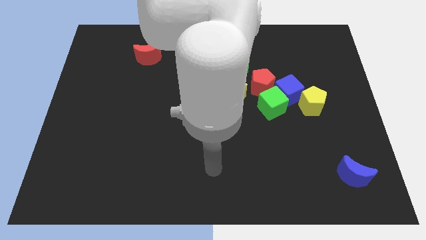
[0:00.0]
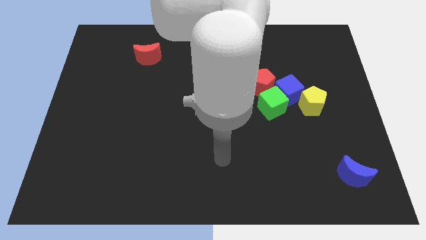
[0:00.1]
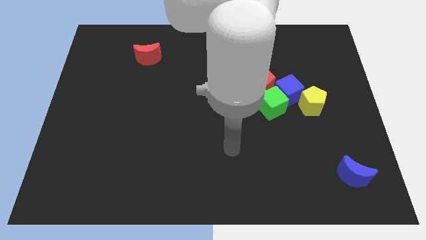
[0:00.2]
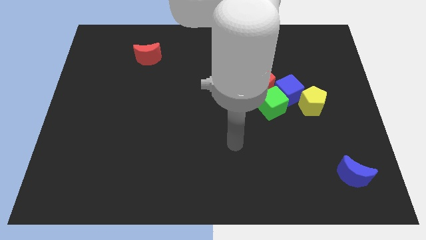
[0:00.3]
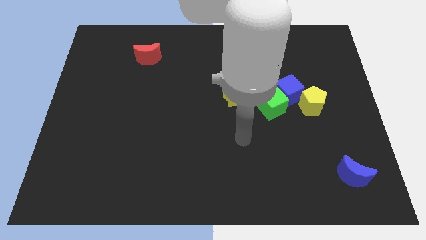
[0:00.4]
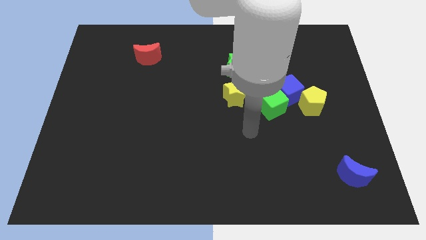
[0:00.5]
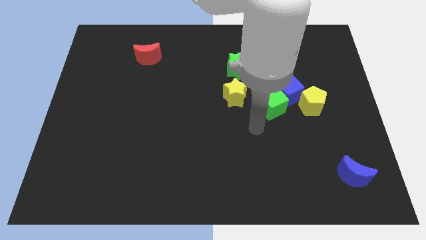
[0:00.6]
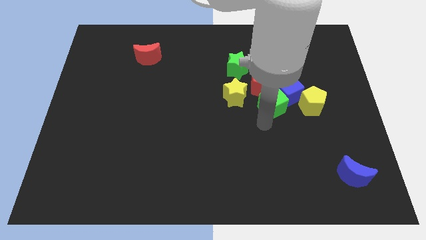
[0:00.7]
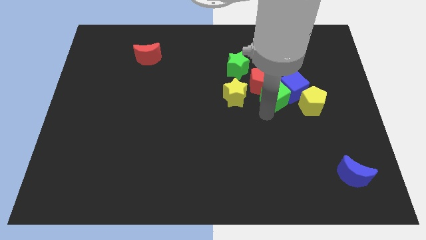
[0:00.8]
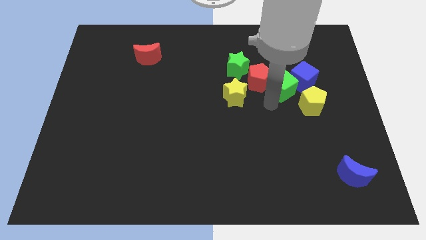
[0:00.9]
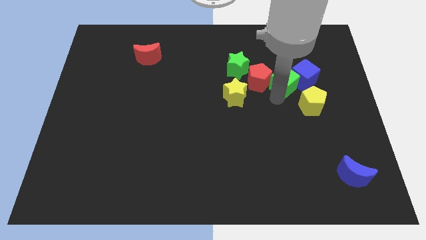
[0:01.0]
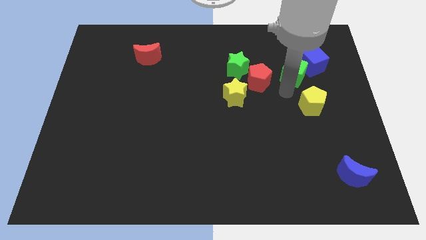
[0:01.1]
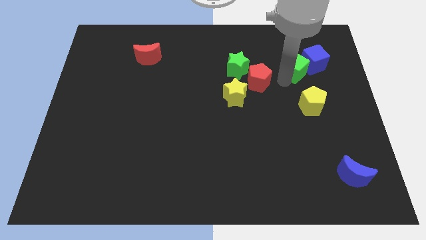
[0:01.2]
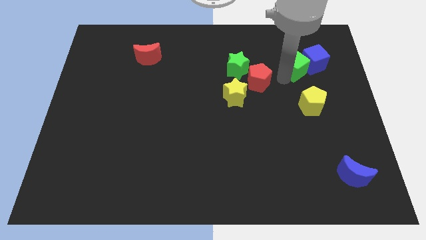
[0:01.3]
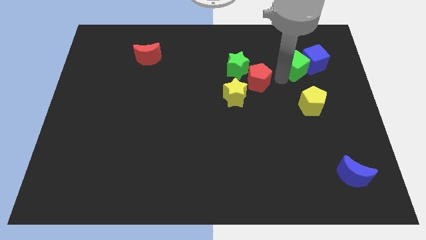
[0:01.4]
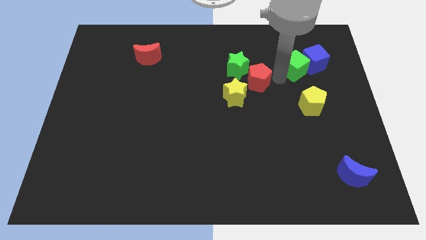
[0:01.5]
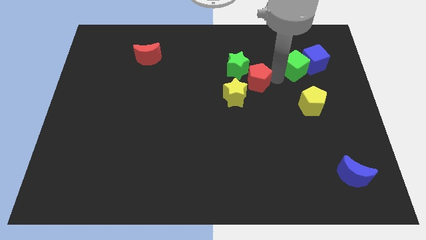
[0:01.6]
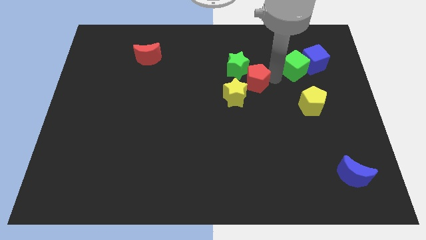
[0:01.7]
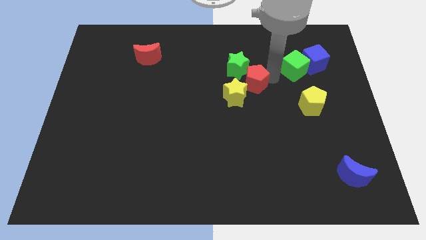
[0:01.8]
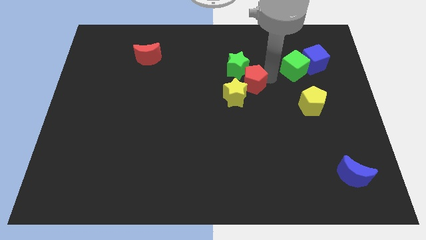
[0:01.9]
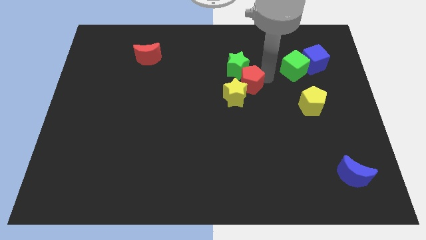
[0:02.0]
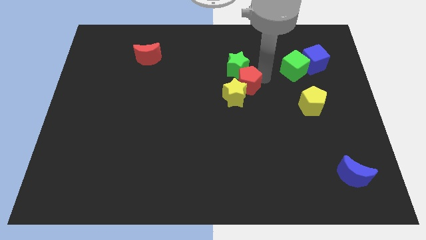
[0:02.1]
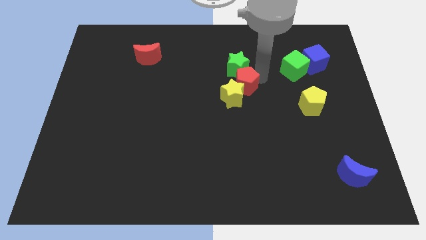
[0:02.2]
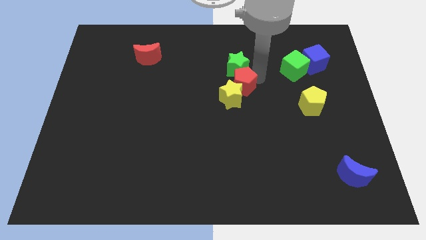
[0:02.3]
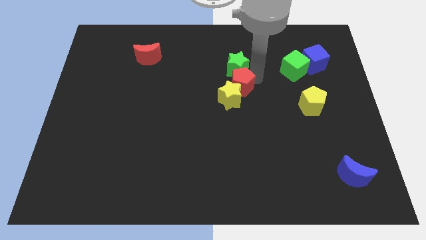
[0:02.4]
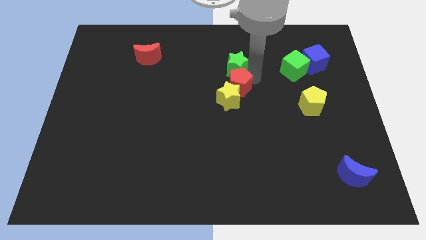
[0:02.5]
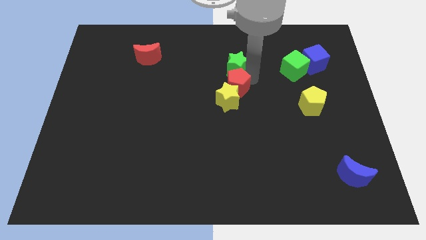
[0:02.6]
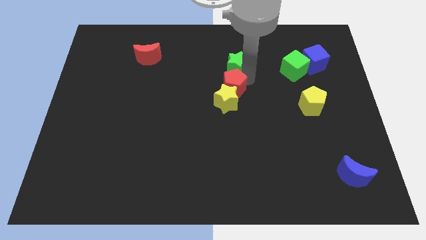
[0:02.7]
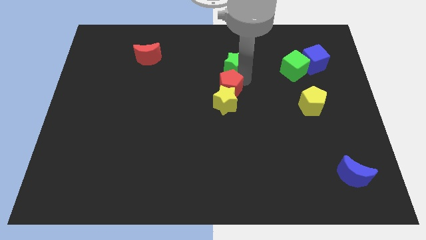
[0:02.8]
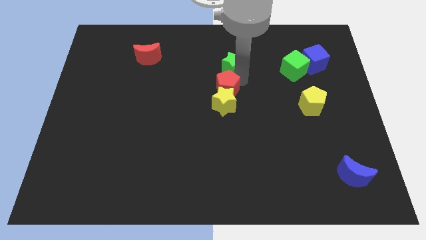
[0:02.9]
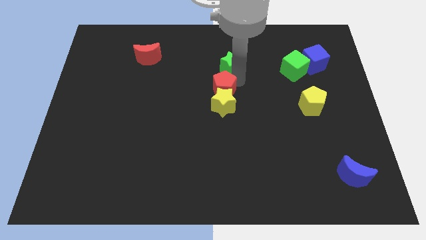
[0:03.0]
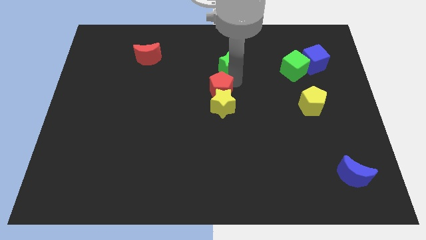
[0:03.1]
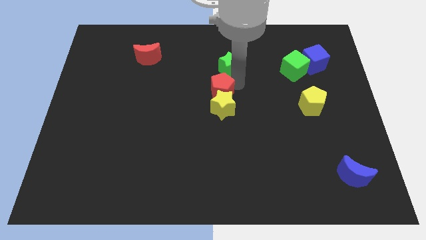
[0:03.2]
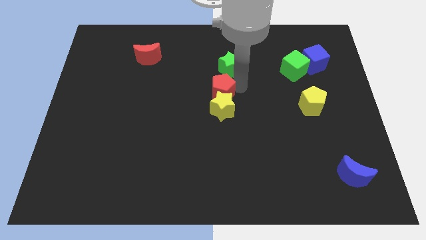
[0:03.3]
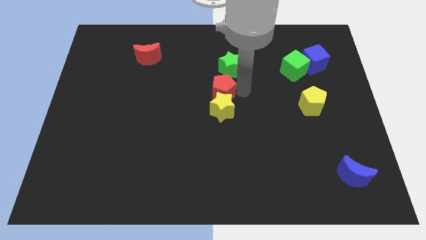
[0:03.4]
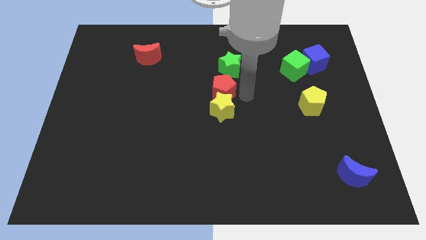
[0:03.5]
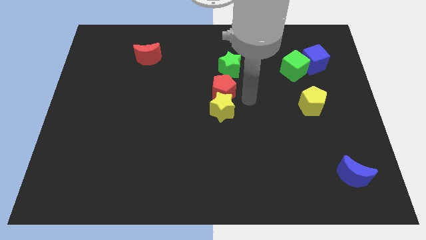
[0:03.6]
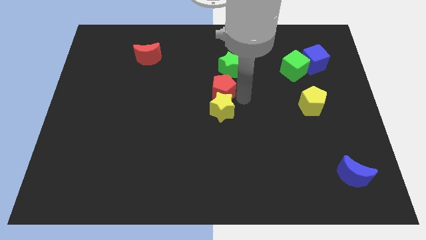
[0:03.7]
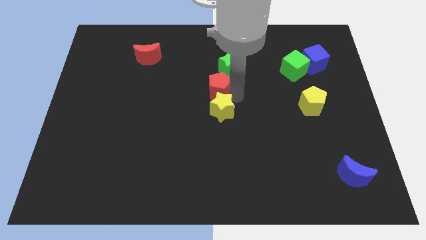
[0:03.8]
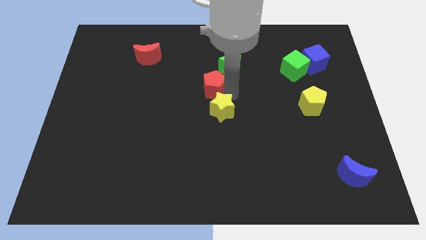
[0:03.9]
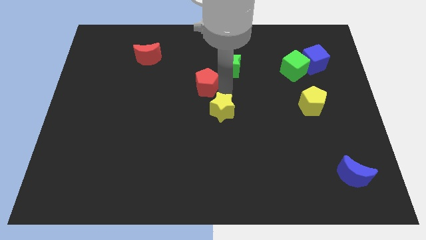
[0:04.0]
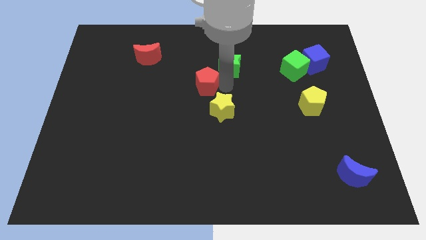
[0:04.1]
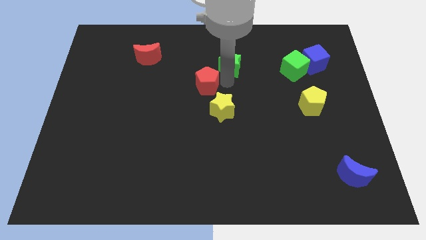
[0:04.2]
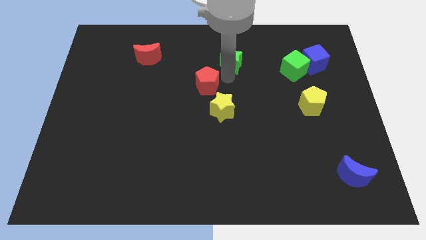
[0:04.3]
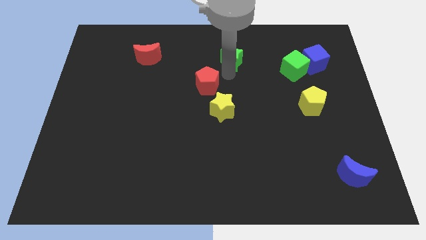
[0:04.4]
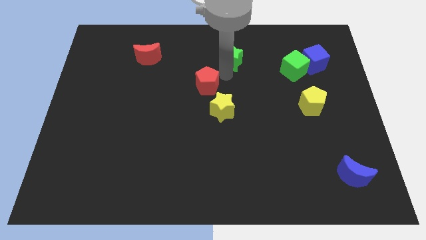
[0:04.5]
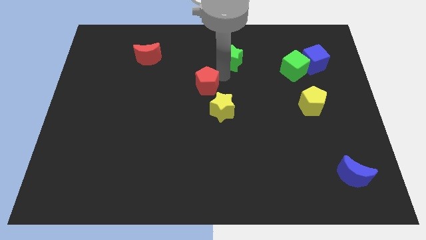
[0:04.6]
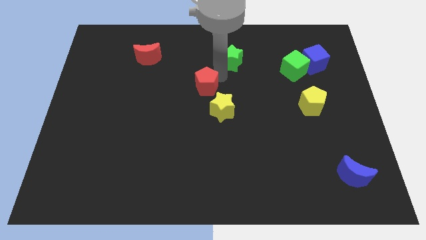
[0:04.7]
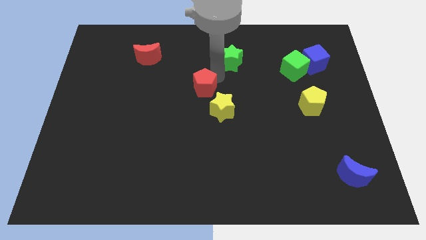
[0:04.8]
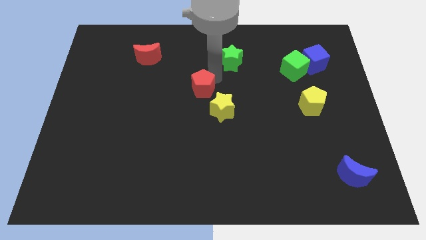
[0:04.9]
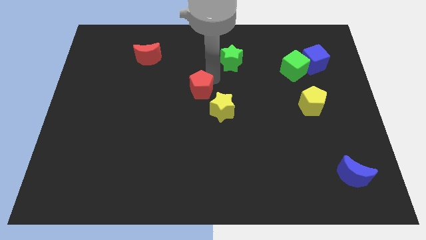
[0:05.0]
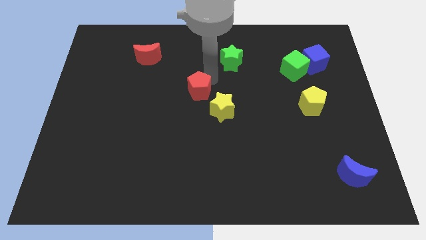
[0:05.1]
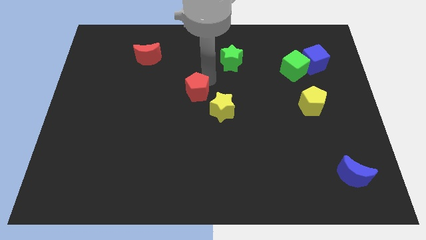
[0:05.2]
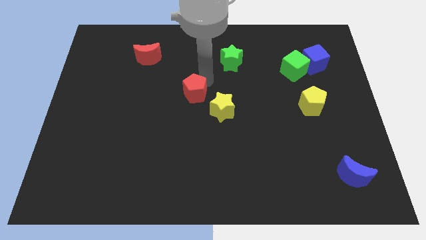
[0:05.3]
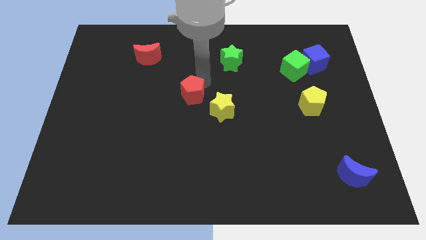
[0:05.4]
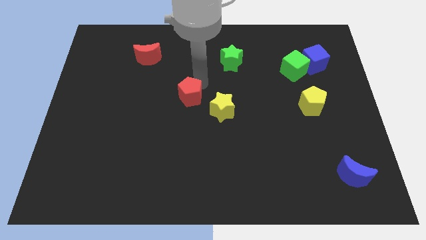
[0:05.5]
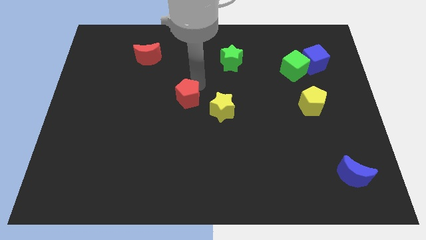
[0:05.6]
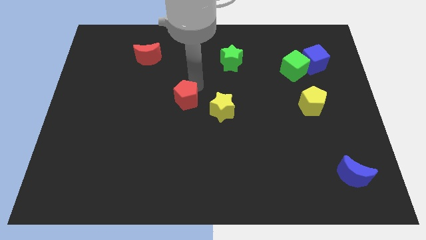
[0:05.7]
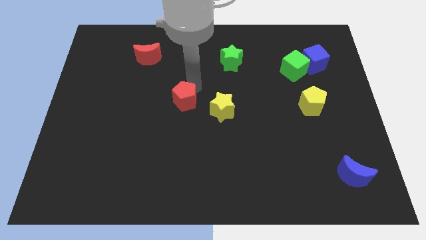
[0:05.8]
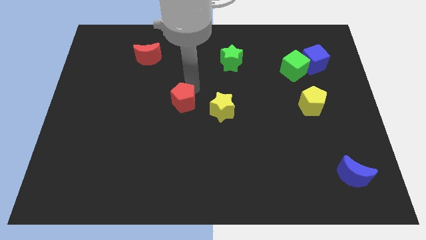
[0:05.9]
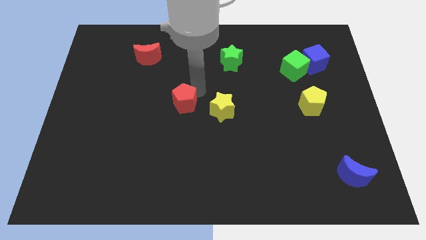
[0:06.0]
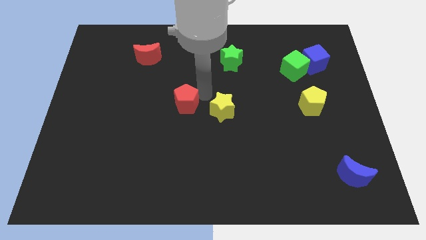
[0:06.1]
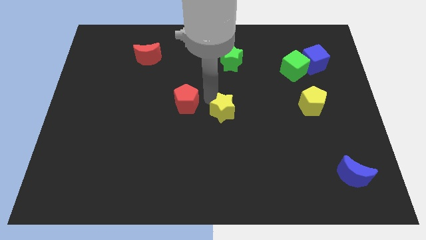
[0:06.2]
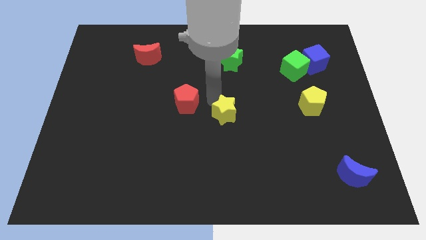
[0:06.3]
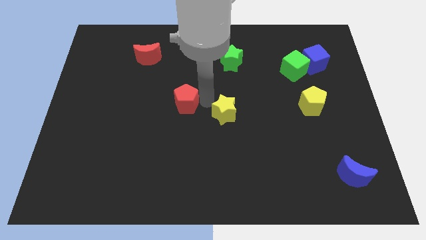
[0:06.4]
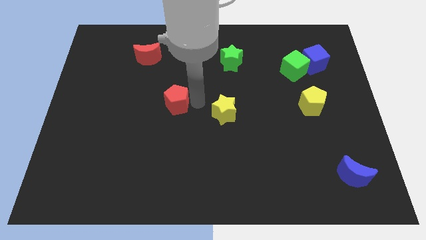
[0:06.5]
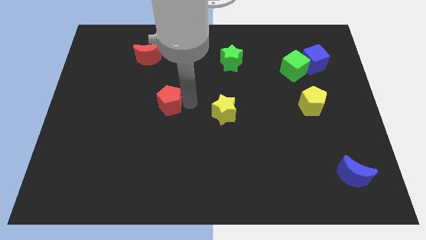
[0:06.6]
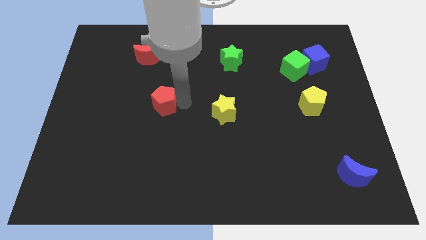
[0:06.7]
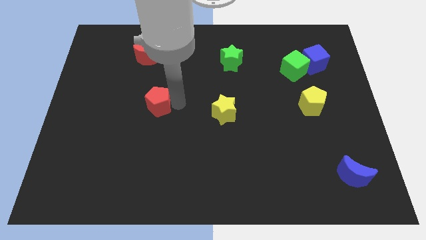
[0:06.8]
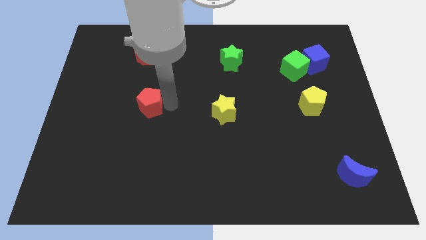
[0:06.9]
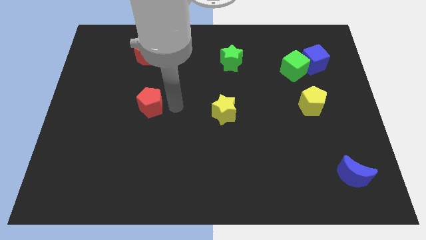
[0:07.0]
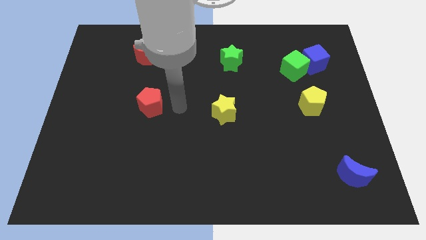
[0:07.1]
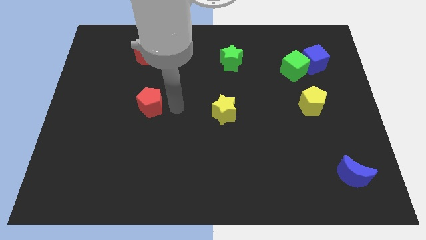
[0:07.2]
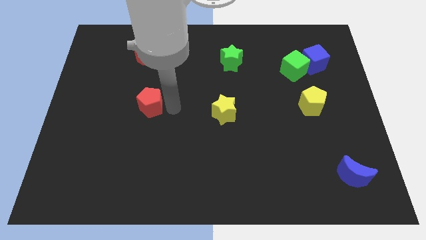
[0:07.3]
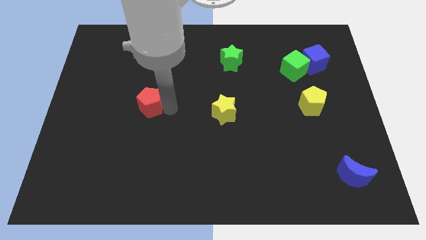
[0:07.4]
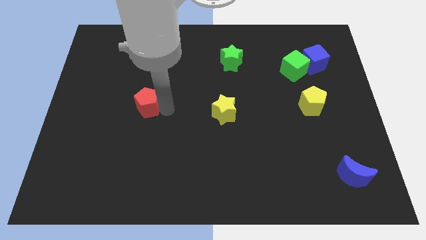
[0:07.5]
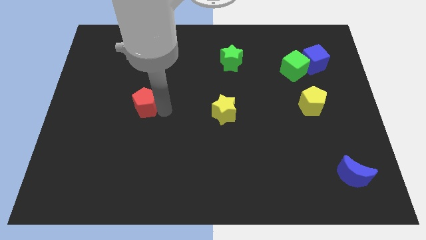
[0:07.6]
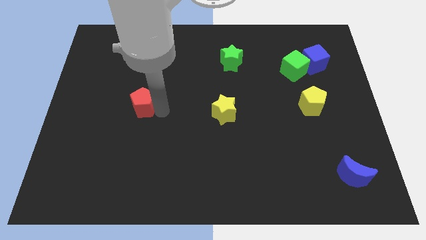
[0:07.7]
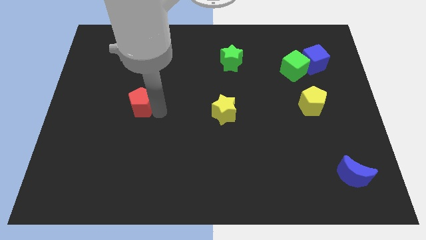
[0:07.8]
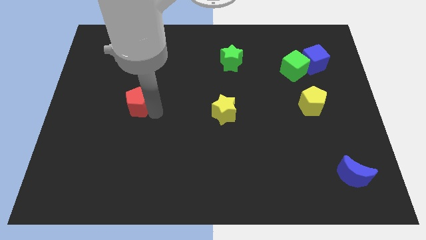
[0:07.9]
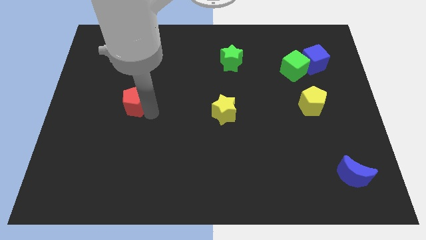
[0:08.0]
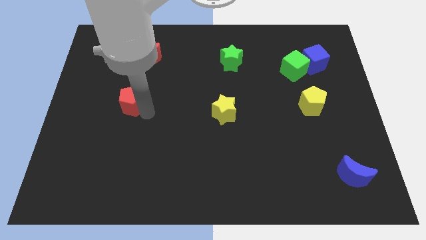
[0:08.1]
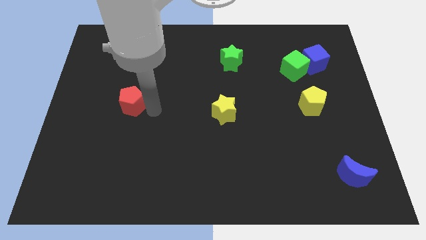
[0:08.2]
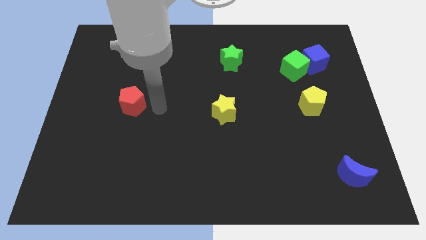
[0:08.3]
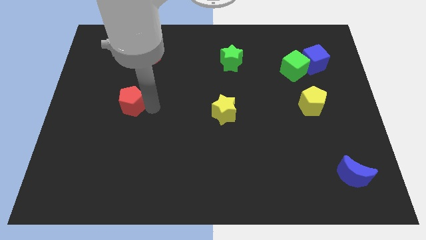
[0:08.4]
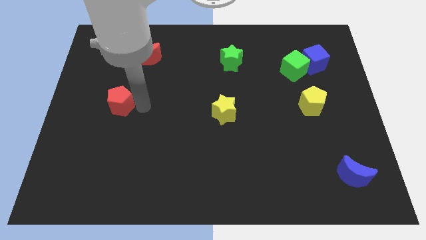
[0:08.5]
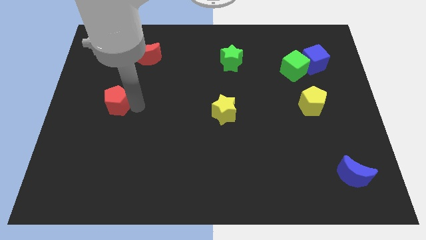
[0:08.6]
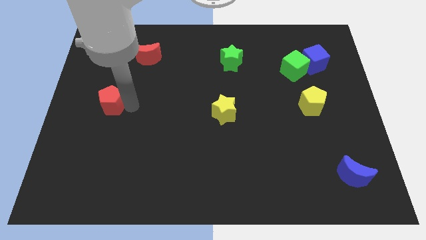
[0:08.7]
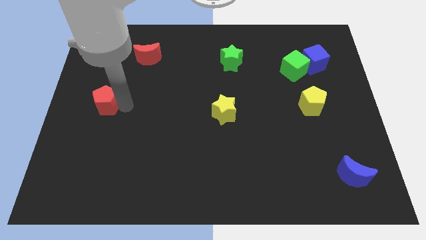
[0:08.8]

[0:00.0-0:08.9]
slide the red pentagon to the left side
